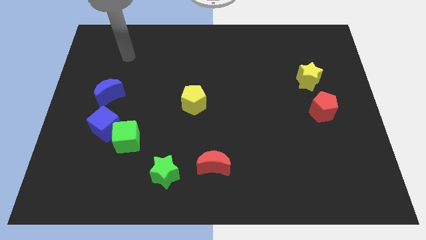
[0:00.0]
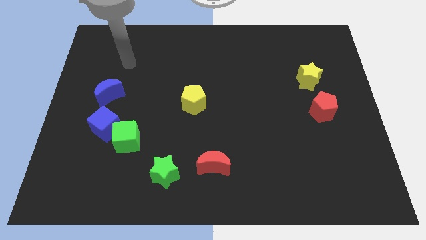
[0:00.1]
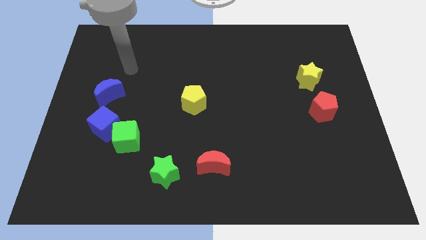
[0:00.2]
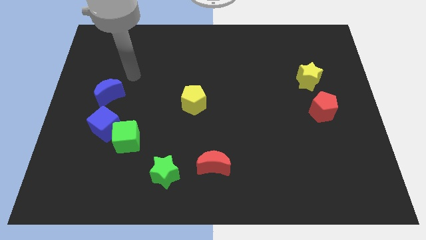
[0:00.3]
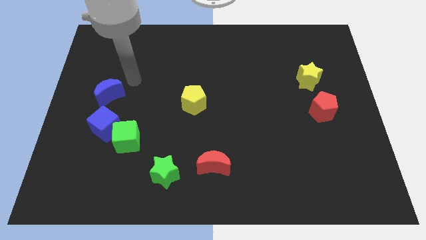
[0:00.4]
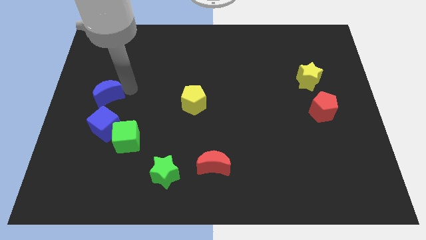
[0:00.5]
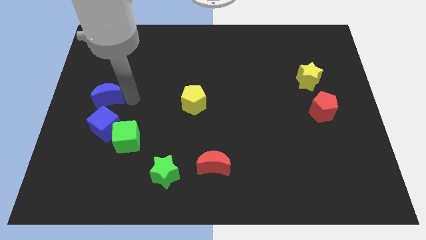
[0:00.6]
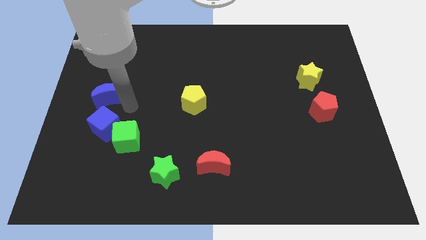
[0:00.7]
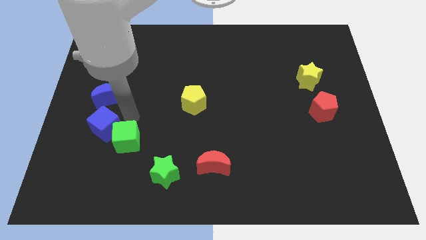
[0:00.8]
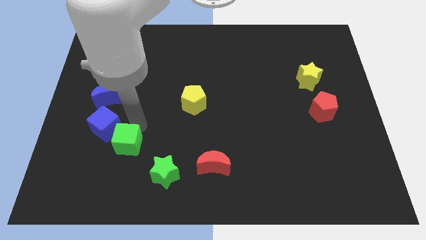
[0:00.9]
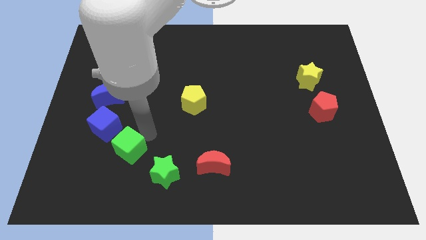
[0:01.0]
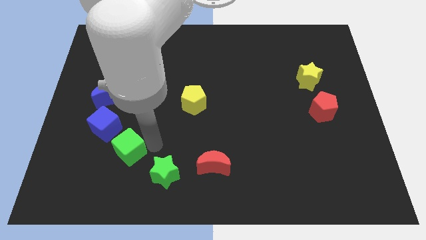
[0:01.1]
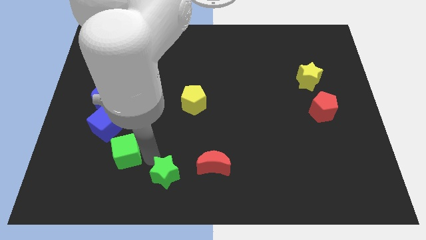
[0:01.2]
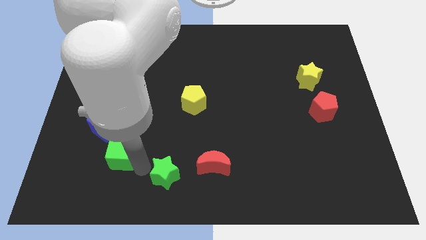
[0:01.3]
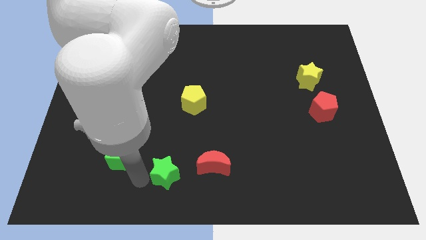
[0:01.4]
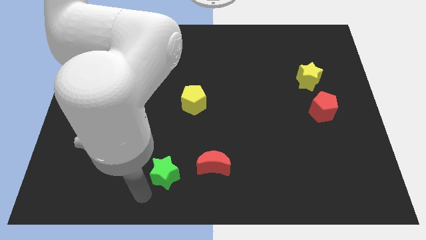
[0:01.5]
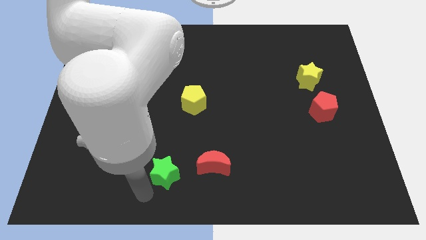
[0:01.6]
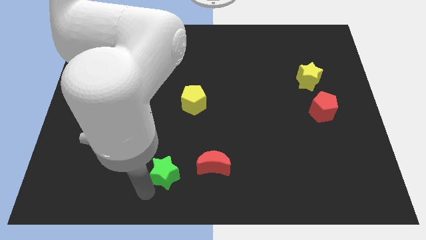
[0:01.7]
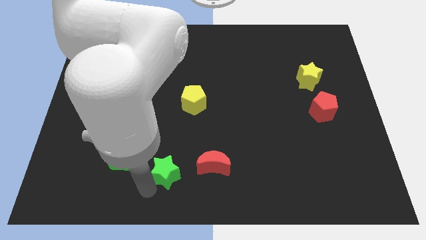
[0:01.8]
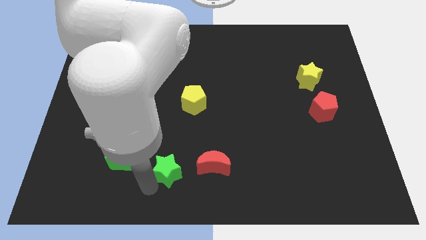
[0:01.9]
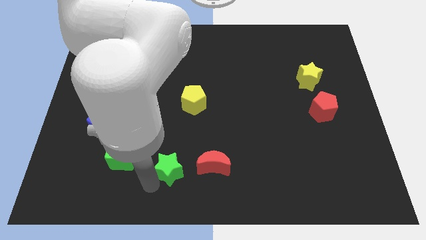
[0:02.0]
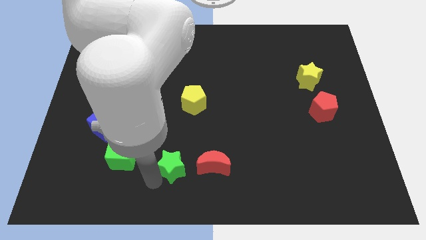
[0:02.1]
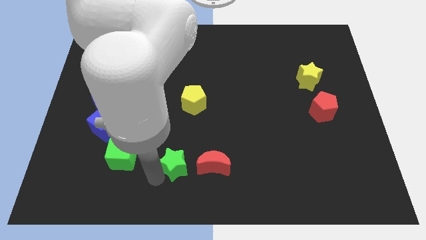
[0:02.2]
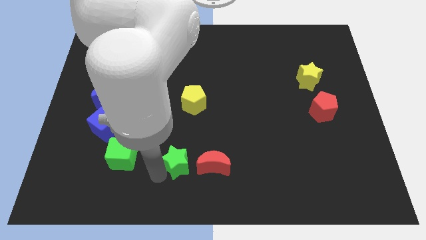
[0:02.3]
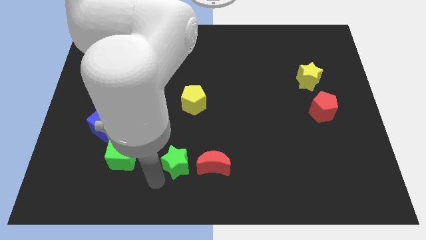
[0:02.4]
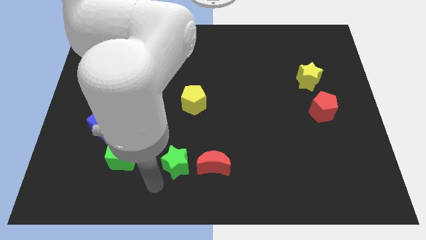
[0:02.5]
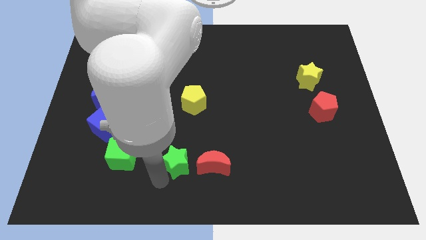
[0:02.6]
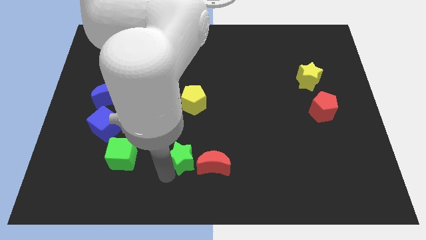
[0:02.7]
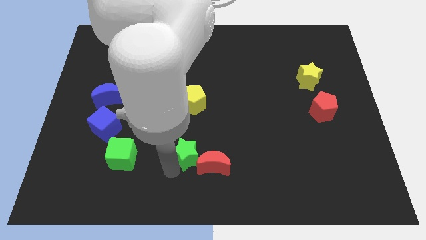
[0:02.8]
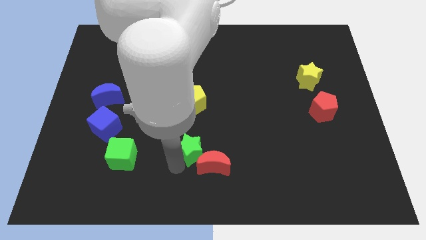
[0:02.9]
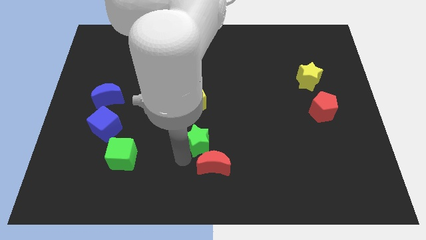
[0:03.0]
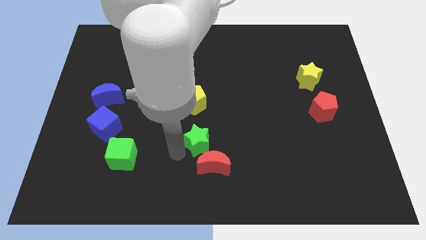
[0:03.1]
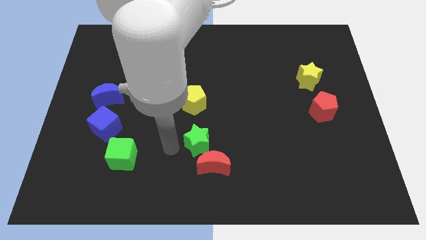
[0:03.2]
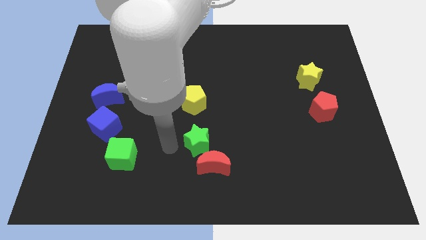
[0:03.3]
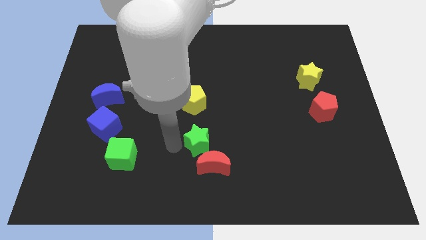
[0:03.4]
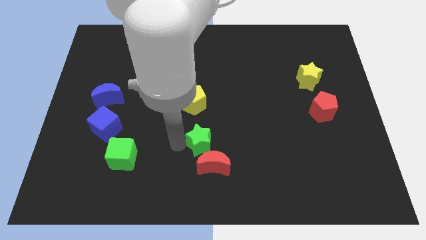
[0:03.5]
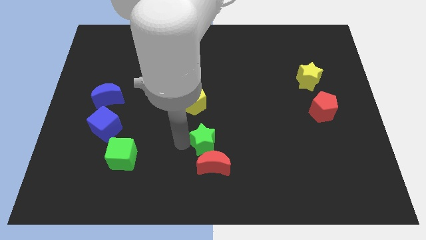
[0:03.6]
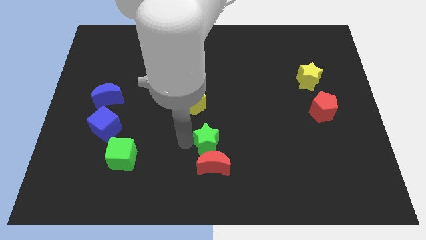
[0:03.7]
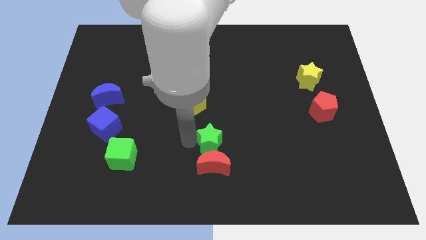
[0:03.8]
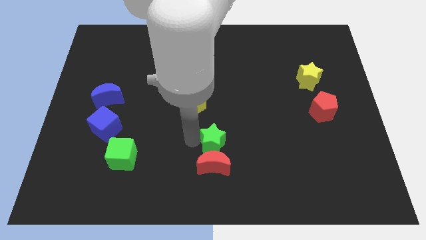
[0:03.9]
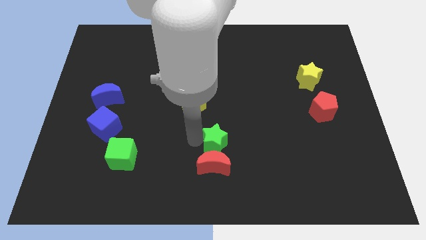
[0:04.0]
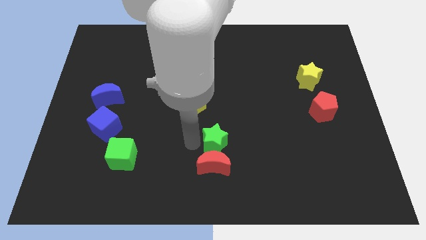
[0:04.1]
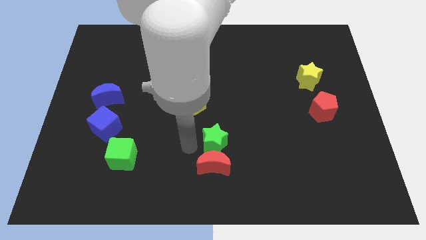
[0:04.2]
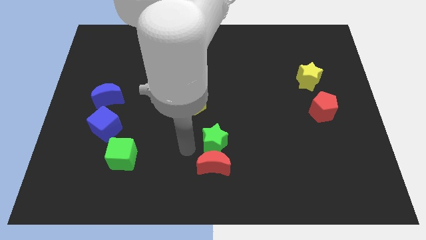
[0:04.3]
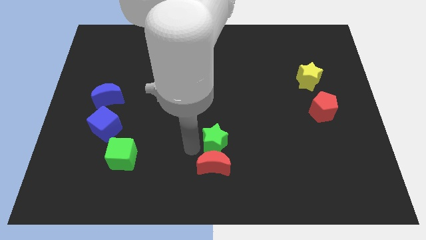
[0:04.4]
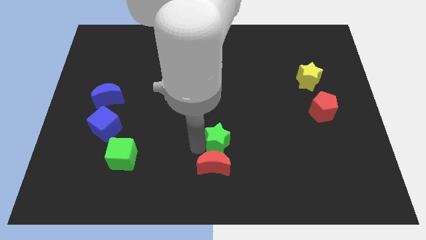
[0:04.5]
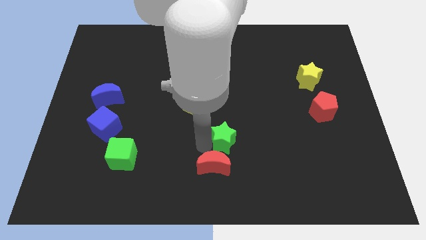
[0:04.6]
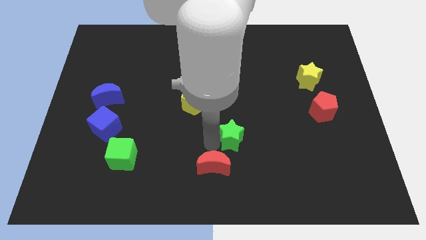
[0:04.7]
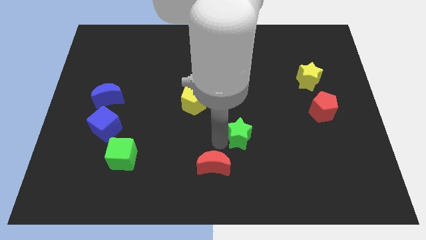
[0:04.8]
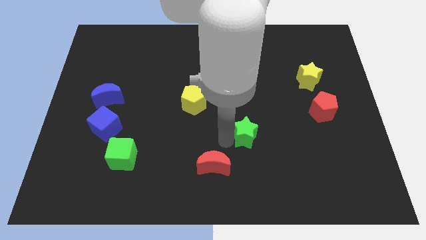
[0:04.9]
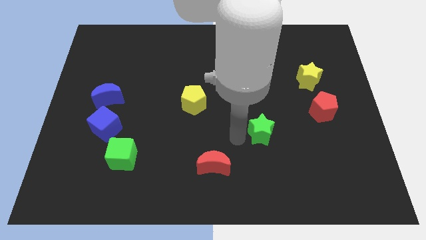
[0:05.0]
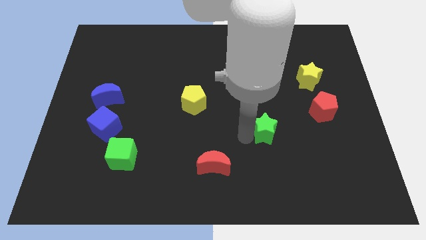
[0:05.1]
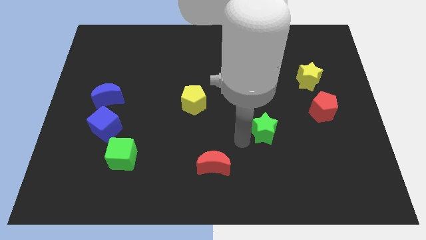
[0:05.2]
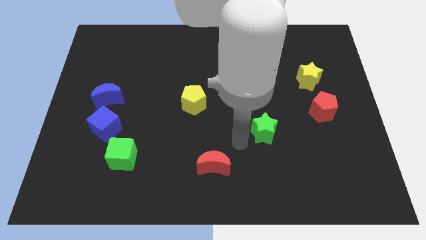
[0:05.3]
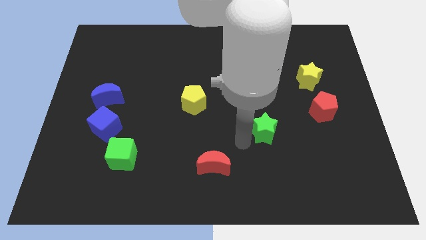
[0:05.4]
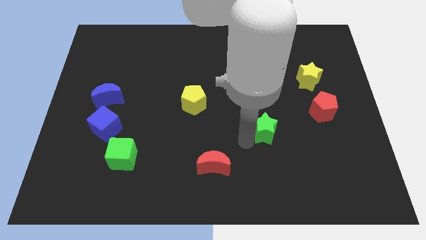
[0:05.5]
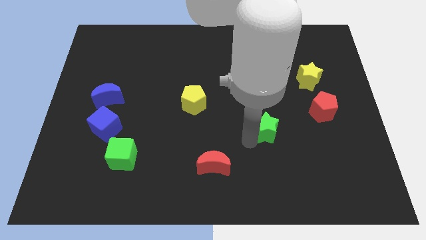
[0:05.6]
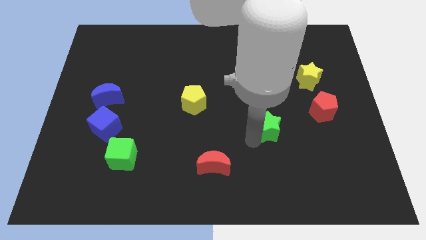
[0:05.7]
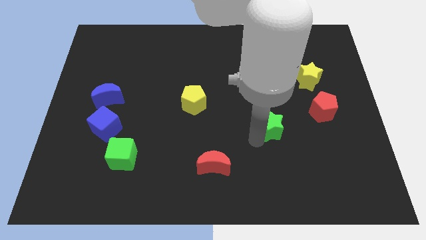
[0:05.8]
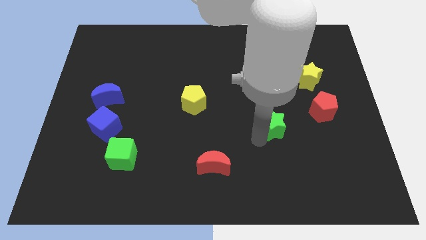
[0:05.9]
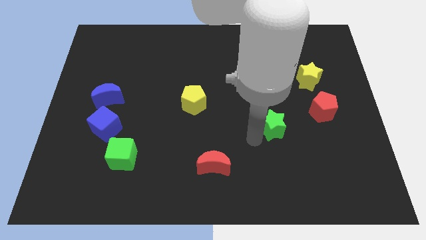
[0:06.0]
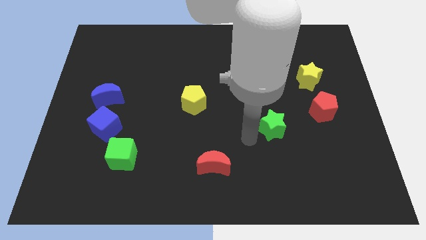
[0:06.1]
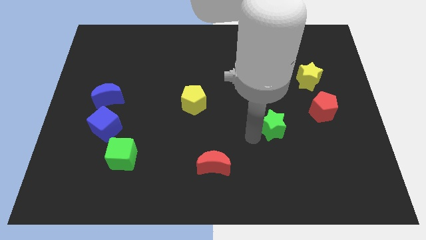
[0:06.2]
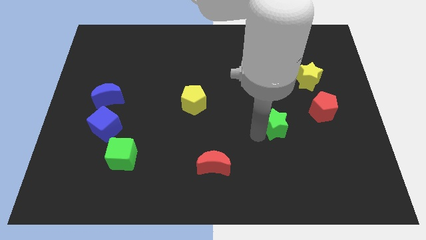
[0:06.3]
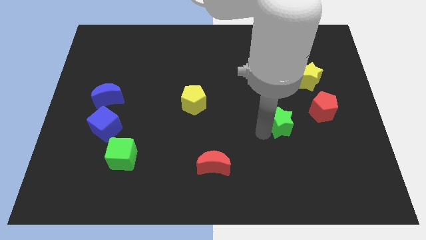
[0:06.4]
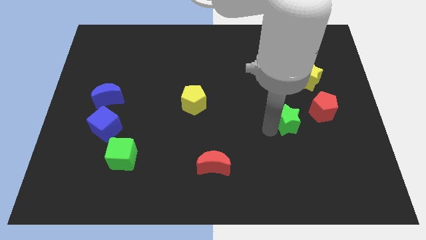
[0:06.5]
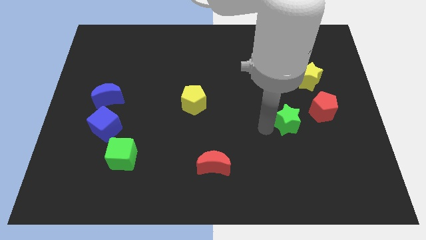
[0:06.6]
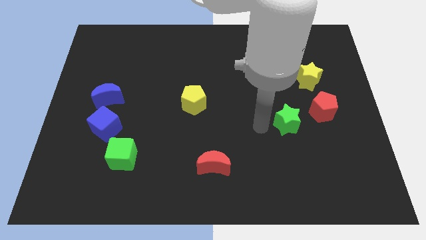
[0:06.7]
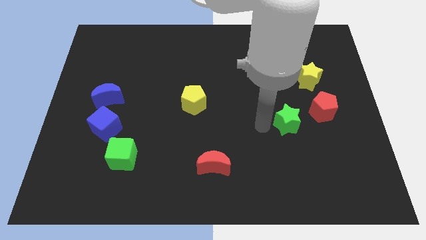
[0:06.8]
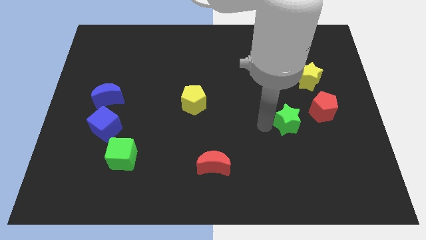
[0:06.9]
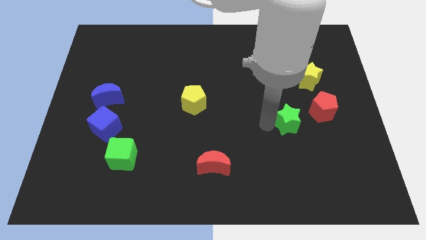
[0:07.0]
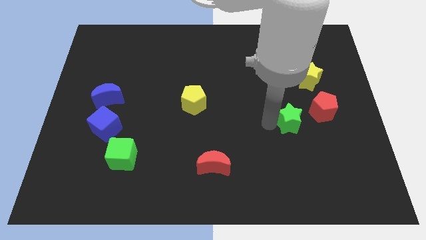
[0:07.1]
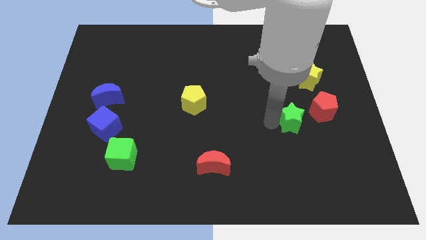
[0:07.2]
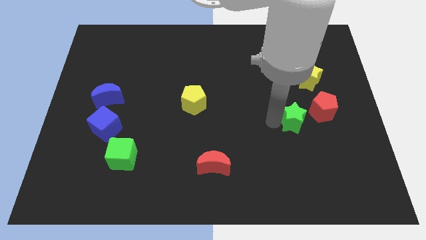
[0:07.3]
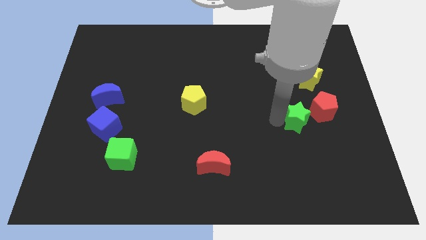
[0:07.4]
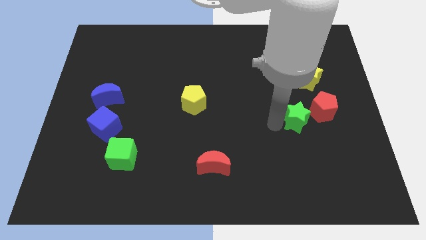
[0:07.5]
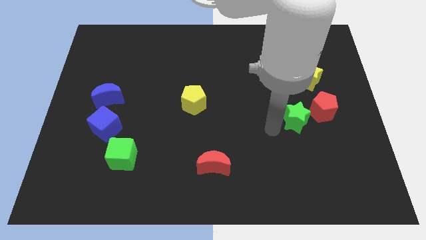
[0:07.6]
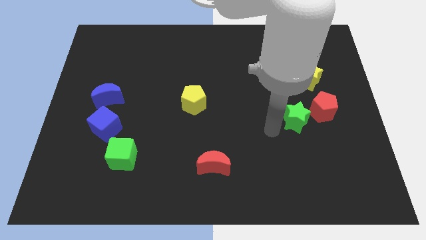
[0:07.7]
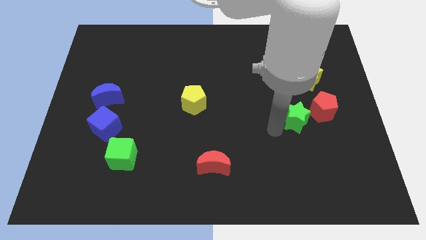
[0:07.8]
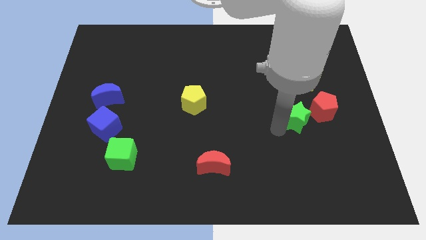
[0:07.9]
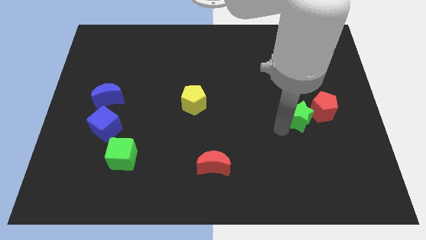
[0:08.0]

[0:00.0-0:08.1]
push the green star to the red pentagon

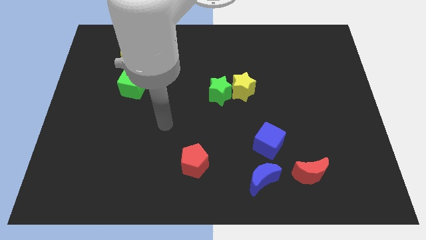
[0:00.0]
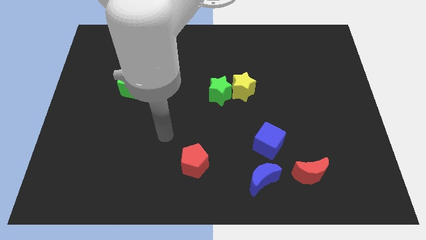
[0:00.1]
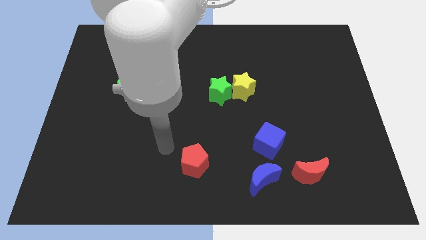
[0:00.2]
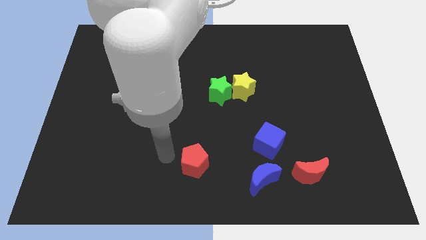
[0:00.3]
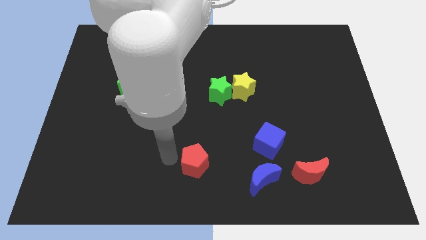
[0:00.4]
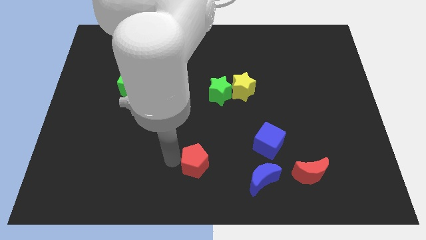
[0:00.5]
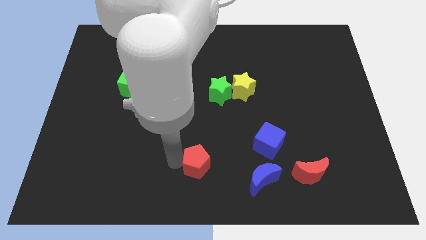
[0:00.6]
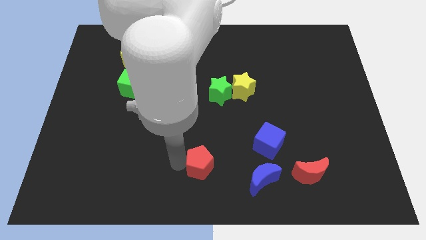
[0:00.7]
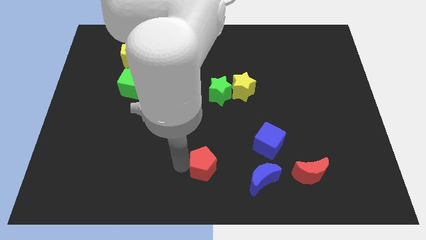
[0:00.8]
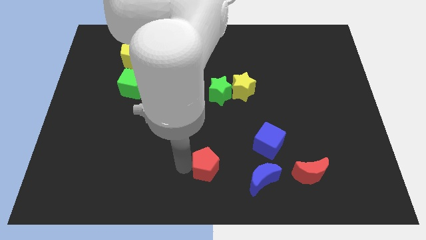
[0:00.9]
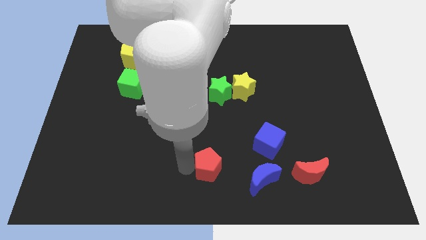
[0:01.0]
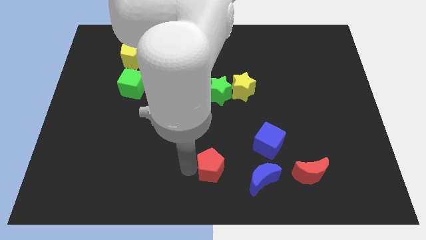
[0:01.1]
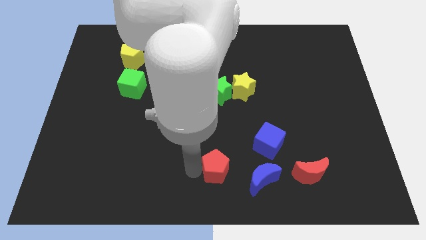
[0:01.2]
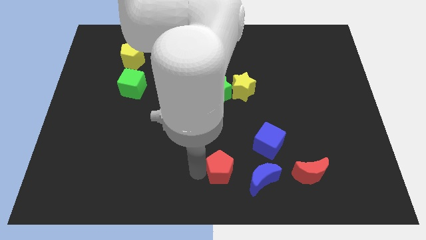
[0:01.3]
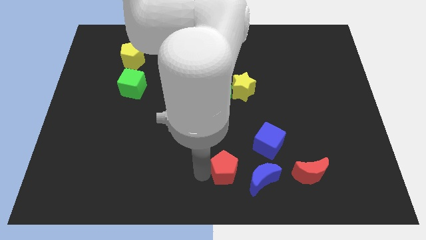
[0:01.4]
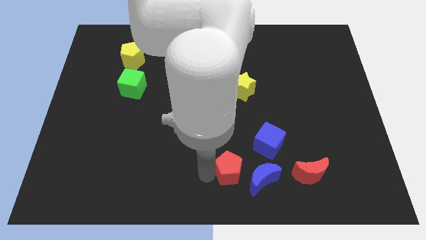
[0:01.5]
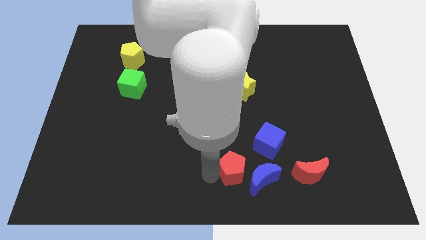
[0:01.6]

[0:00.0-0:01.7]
move the red pentagon close to the blue moon
